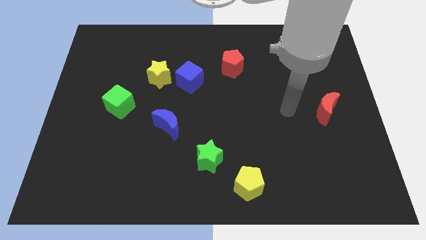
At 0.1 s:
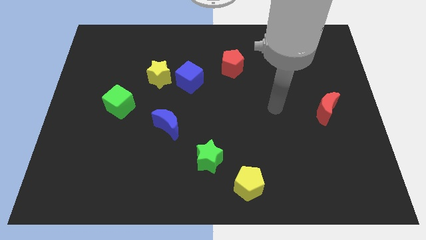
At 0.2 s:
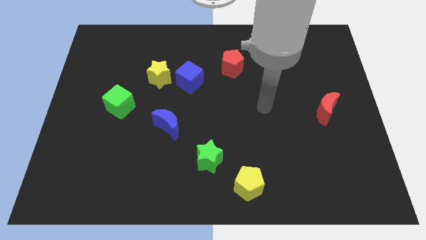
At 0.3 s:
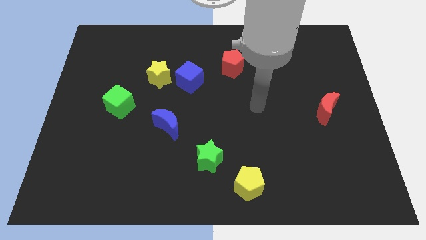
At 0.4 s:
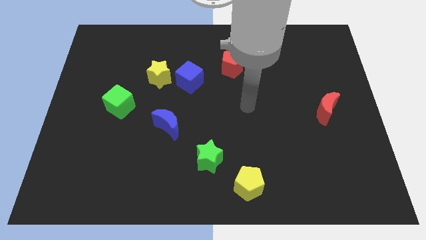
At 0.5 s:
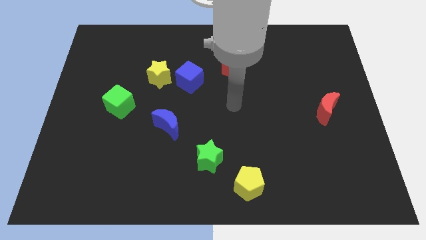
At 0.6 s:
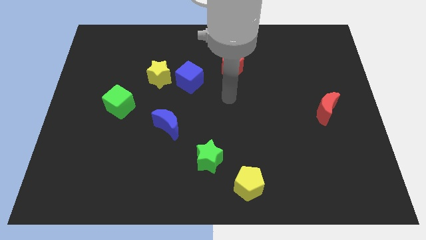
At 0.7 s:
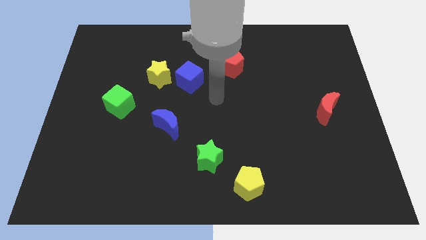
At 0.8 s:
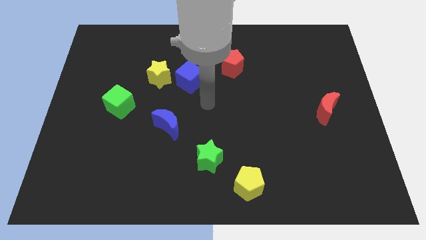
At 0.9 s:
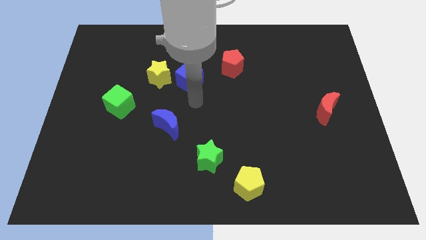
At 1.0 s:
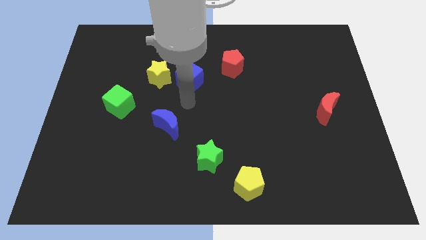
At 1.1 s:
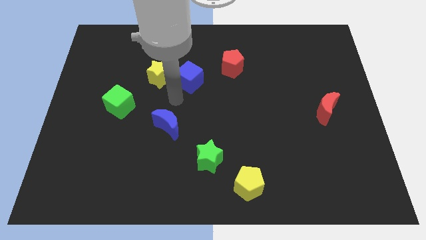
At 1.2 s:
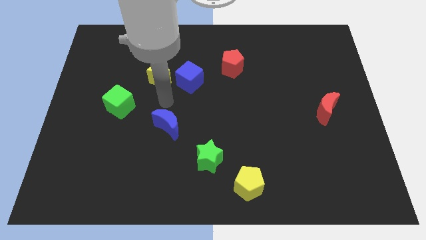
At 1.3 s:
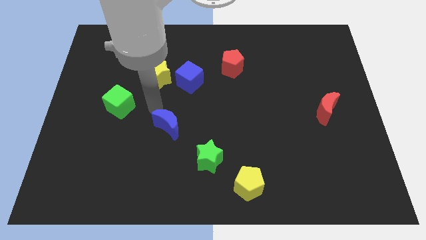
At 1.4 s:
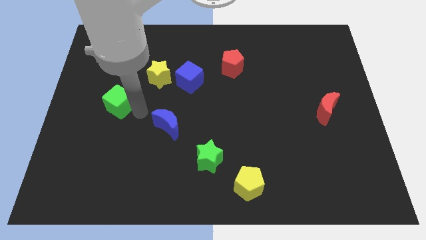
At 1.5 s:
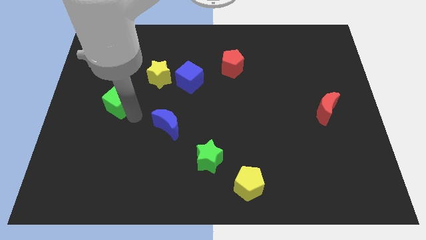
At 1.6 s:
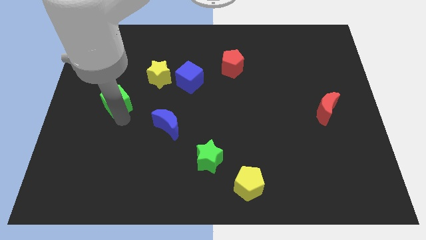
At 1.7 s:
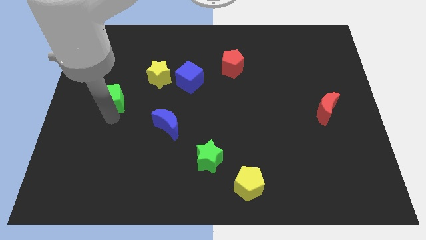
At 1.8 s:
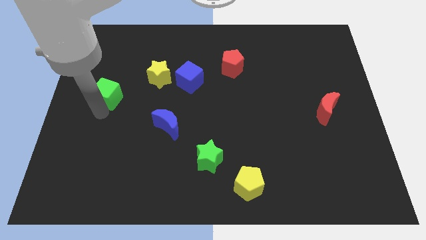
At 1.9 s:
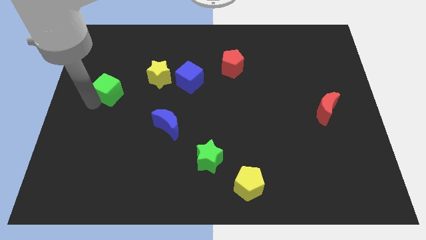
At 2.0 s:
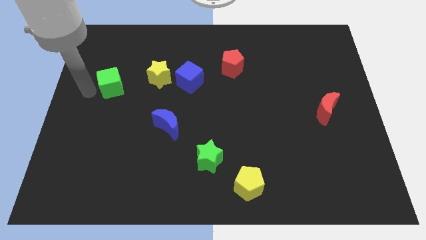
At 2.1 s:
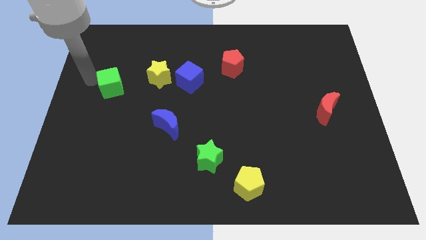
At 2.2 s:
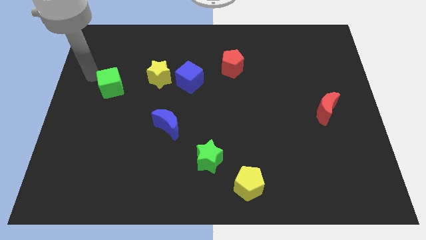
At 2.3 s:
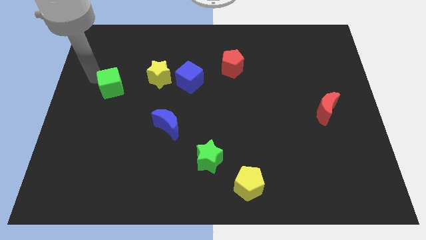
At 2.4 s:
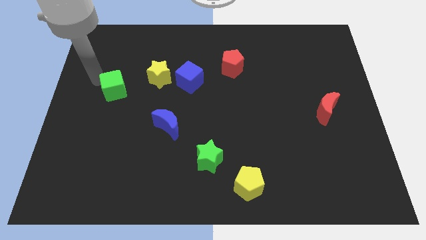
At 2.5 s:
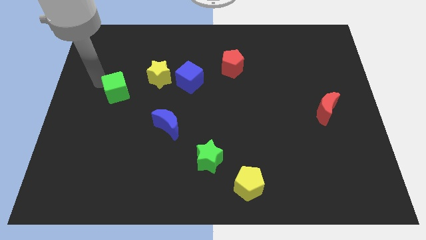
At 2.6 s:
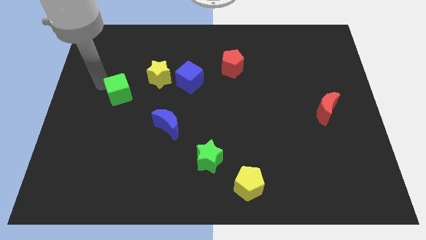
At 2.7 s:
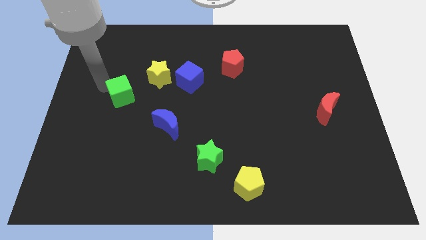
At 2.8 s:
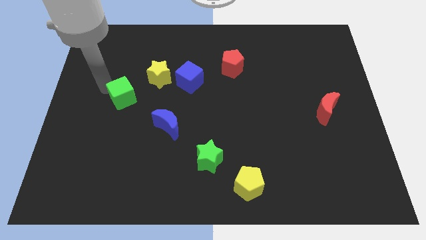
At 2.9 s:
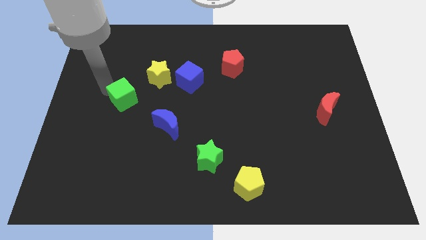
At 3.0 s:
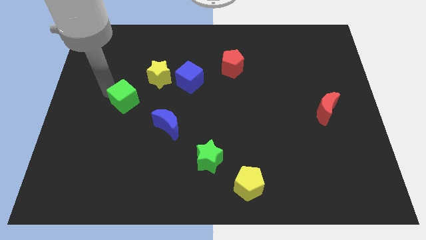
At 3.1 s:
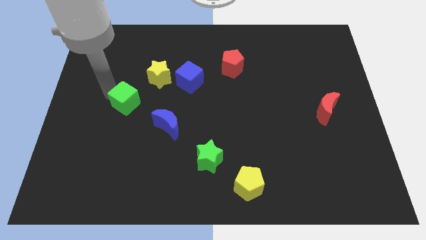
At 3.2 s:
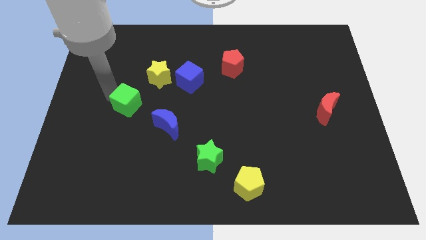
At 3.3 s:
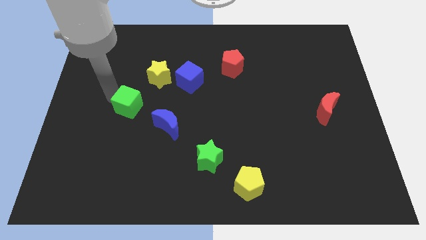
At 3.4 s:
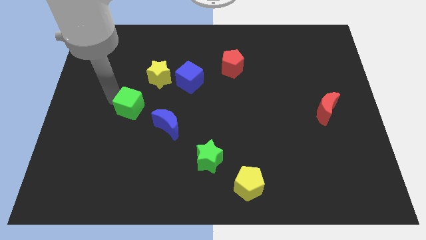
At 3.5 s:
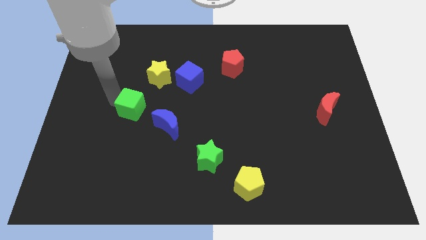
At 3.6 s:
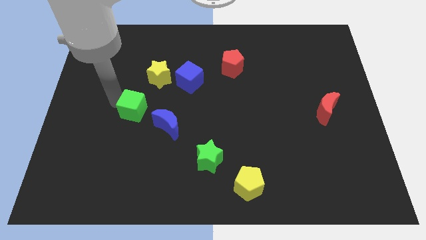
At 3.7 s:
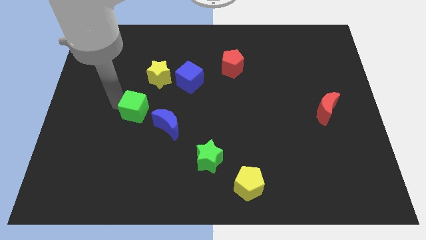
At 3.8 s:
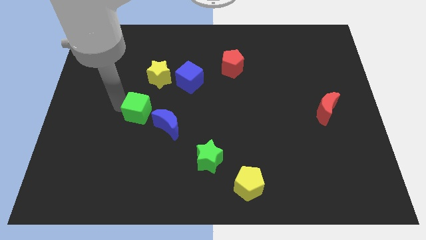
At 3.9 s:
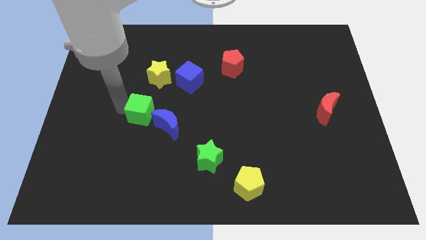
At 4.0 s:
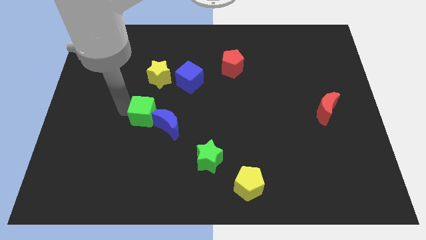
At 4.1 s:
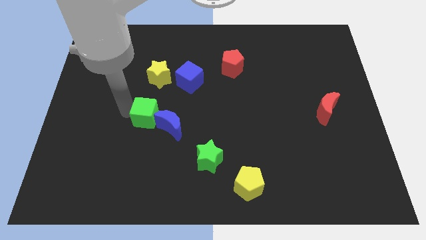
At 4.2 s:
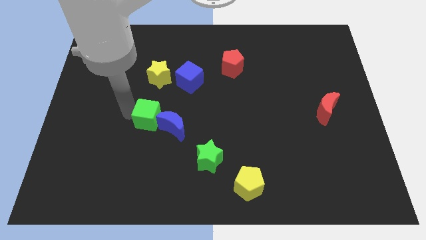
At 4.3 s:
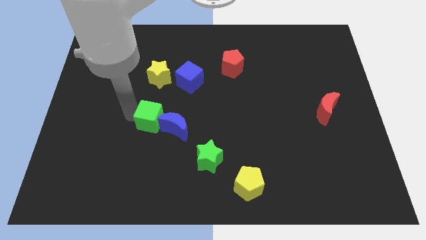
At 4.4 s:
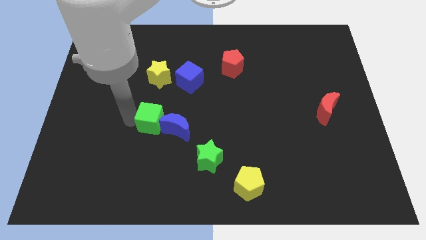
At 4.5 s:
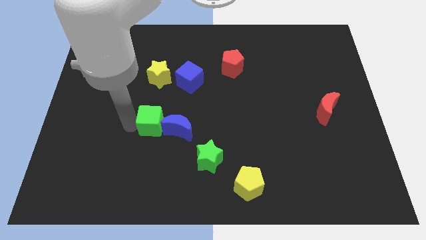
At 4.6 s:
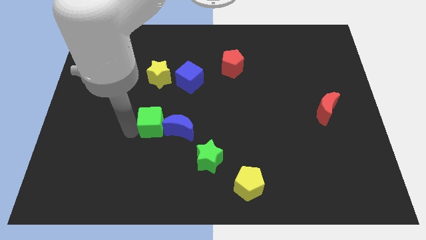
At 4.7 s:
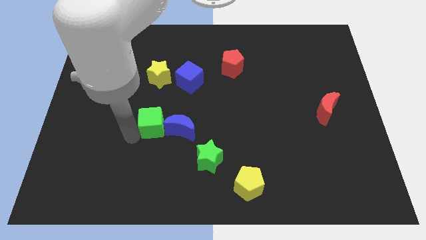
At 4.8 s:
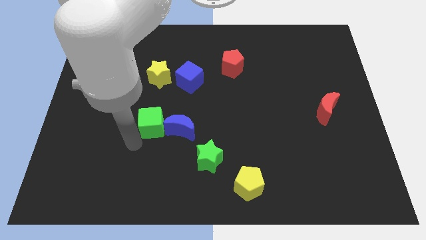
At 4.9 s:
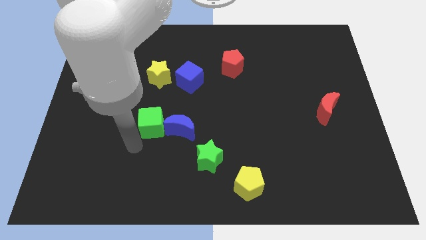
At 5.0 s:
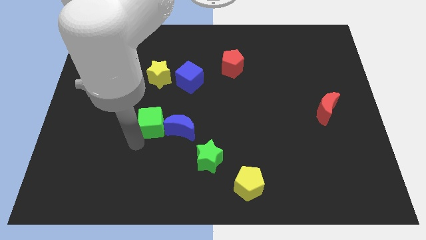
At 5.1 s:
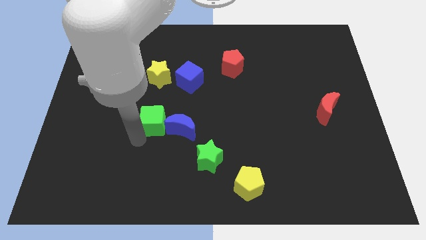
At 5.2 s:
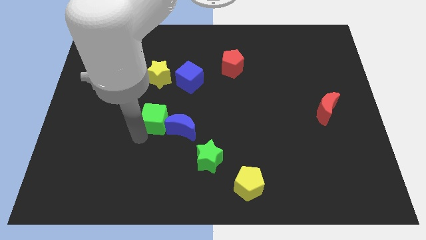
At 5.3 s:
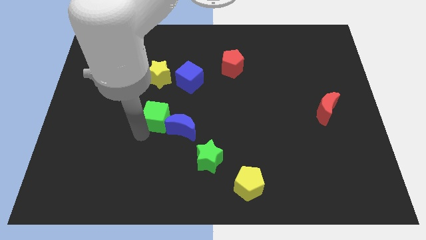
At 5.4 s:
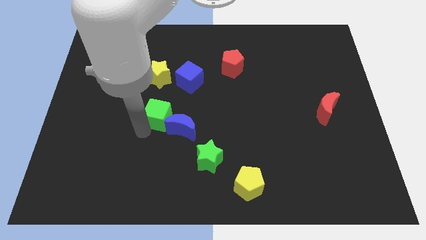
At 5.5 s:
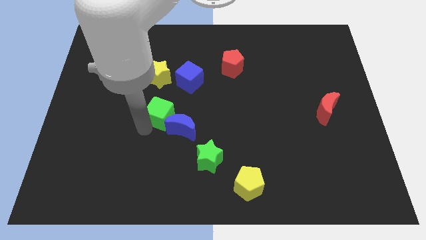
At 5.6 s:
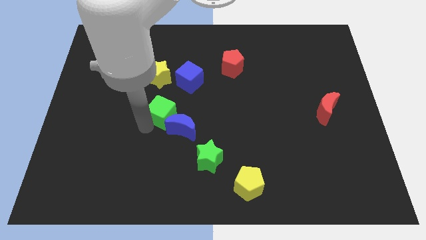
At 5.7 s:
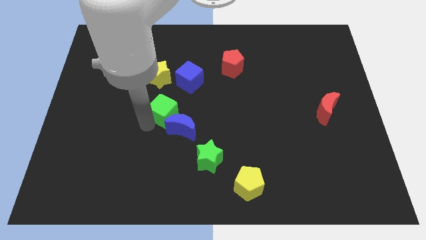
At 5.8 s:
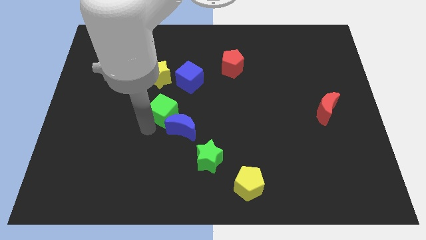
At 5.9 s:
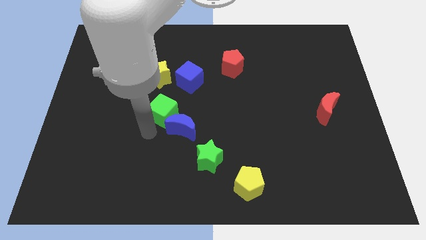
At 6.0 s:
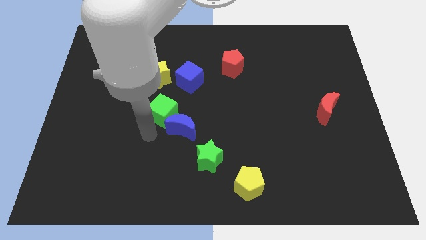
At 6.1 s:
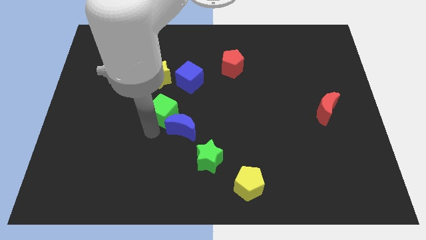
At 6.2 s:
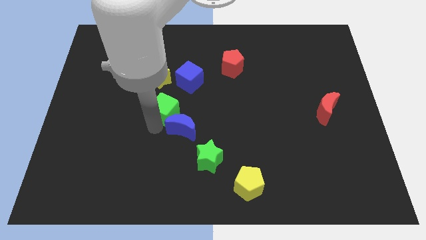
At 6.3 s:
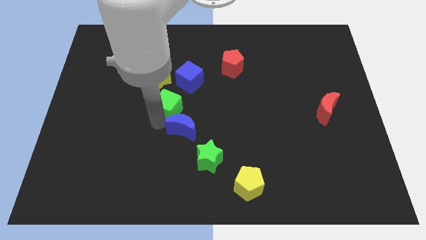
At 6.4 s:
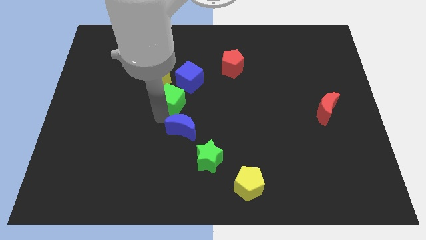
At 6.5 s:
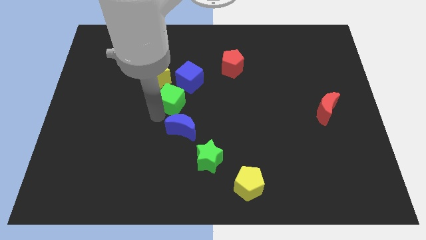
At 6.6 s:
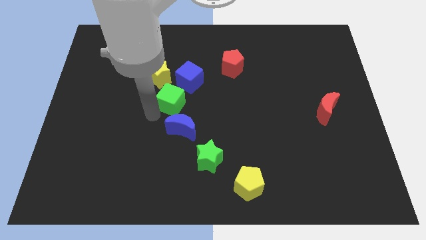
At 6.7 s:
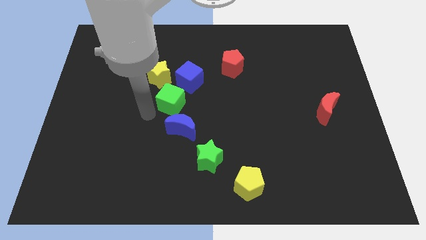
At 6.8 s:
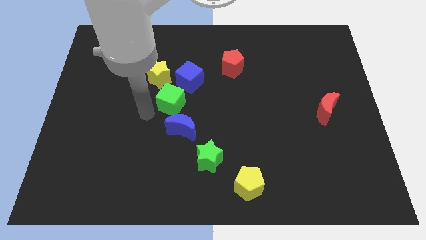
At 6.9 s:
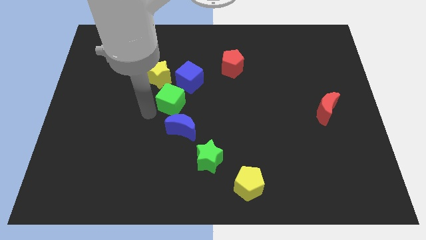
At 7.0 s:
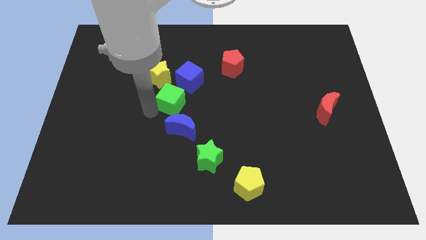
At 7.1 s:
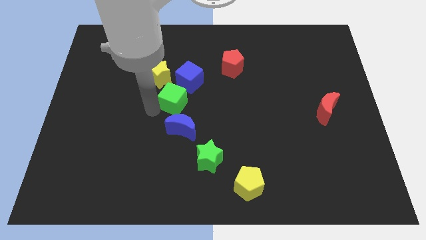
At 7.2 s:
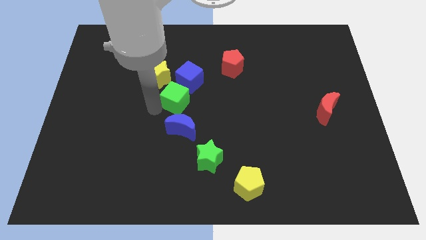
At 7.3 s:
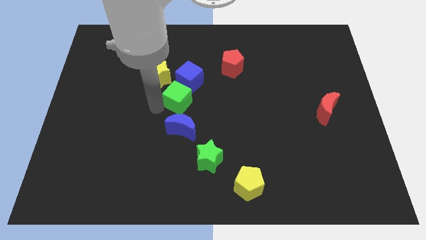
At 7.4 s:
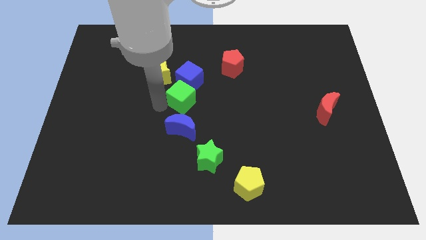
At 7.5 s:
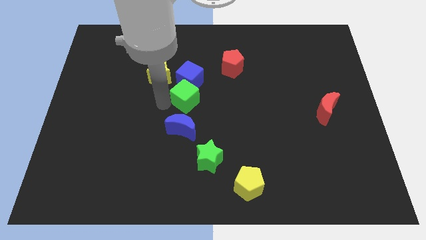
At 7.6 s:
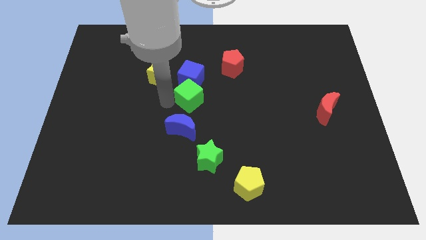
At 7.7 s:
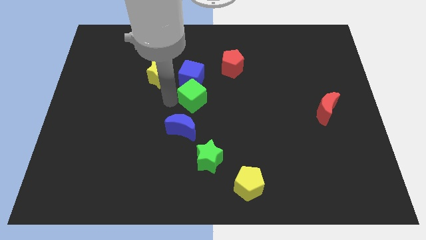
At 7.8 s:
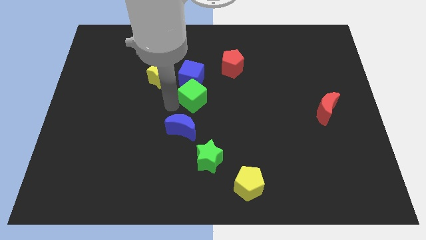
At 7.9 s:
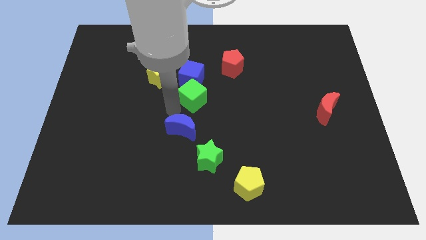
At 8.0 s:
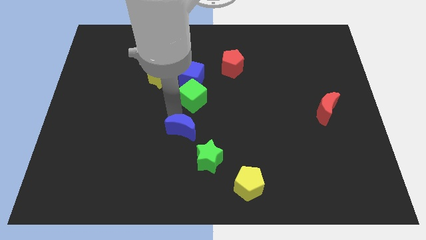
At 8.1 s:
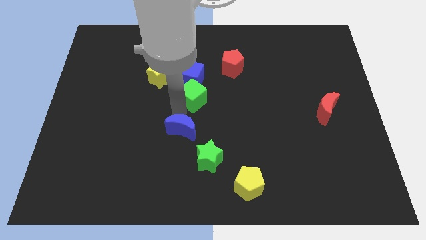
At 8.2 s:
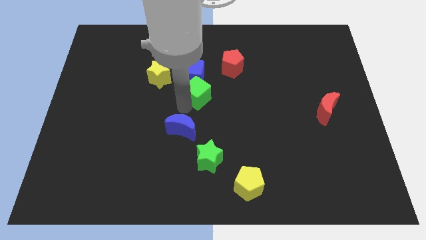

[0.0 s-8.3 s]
put the green cube to the bottom left of the red pentagon
